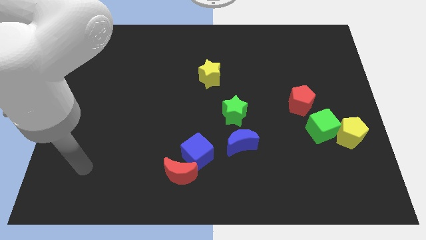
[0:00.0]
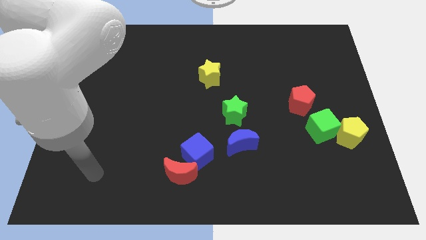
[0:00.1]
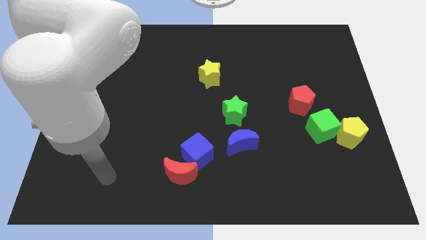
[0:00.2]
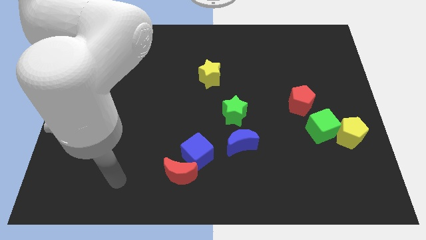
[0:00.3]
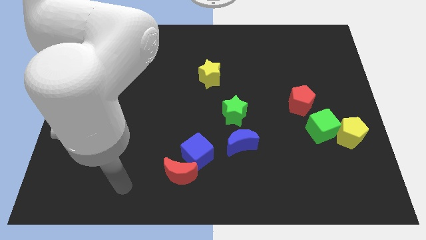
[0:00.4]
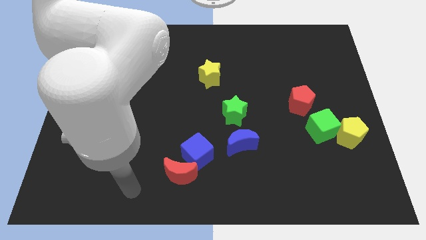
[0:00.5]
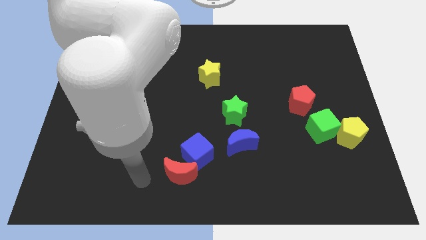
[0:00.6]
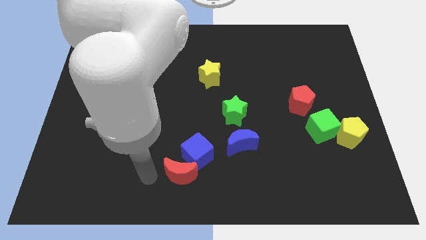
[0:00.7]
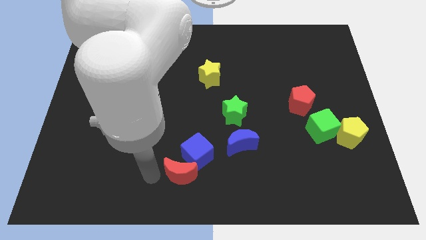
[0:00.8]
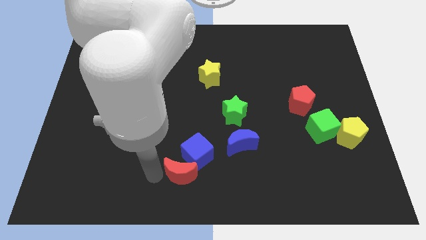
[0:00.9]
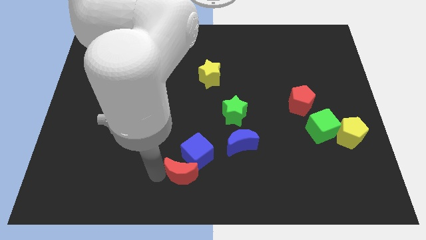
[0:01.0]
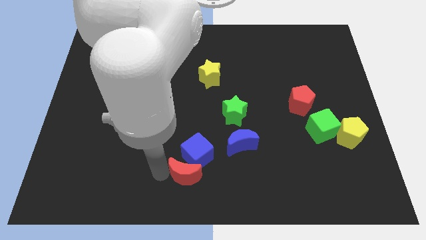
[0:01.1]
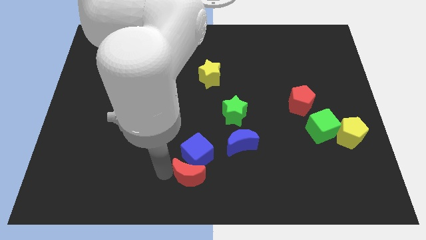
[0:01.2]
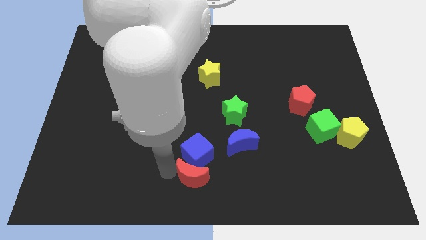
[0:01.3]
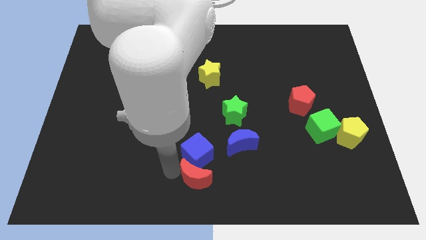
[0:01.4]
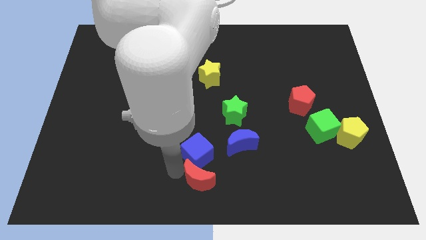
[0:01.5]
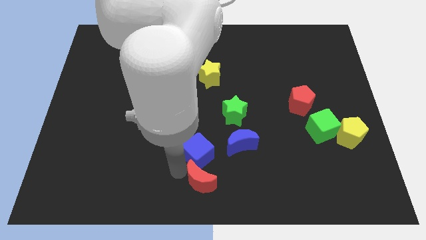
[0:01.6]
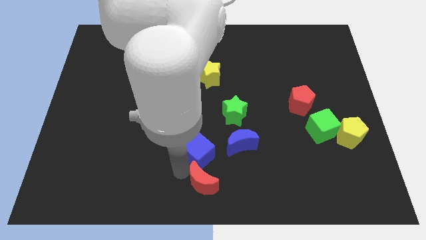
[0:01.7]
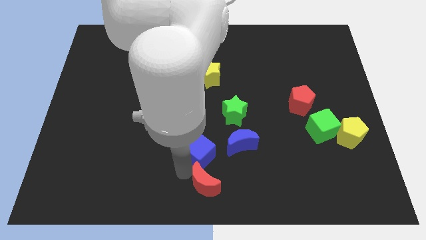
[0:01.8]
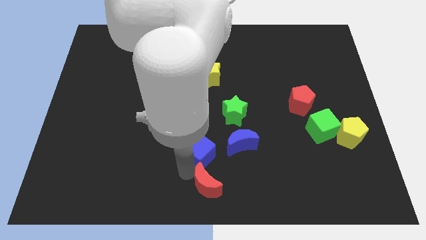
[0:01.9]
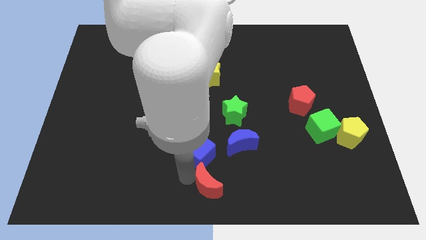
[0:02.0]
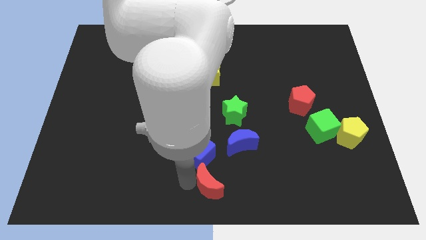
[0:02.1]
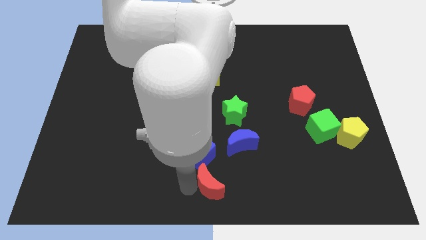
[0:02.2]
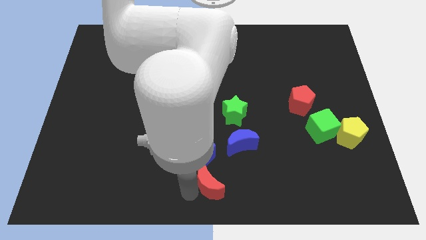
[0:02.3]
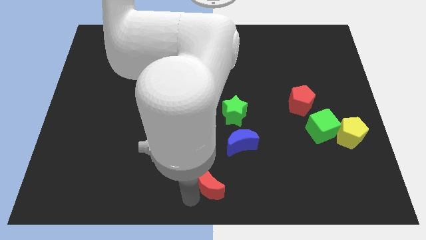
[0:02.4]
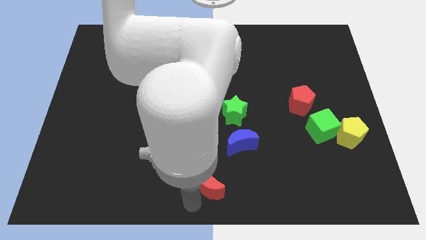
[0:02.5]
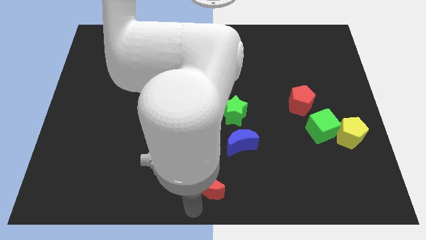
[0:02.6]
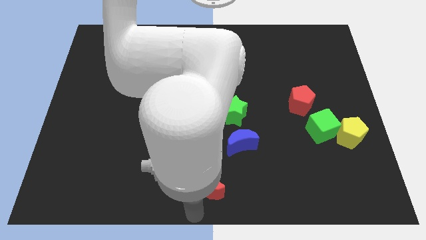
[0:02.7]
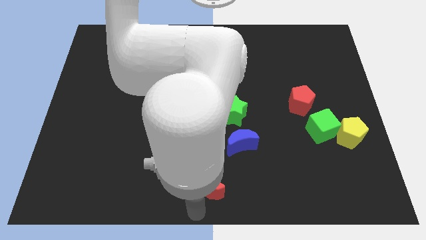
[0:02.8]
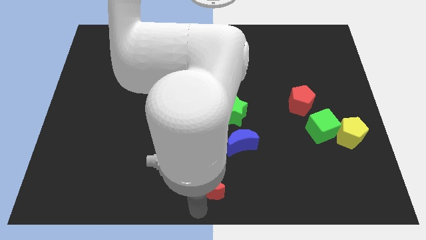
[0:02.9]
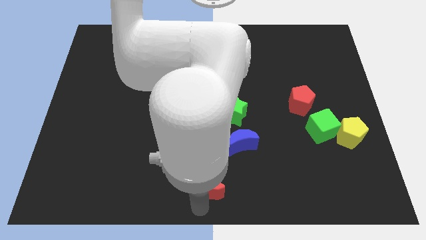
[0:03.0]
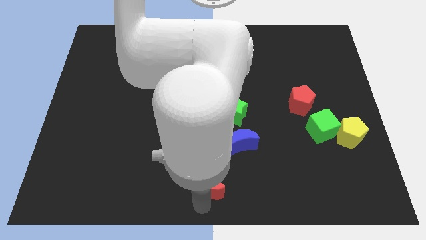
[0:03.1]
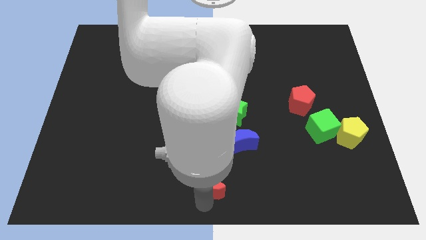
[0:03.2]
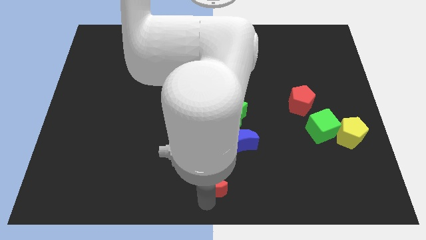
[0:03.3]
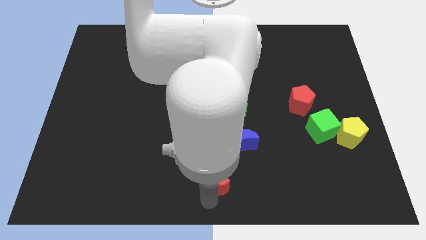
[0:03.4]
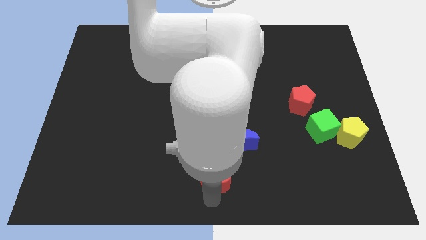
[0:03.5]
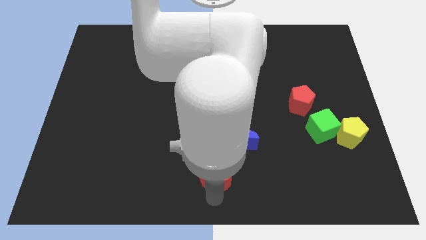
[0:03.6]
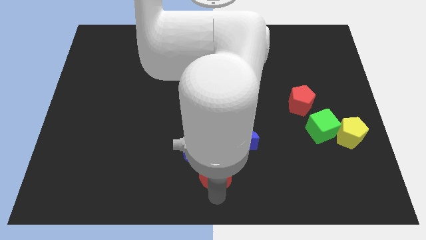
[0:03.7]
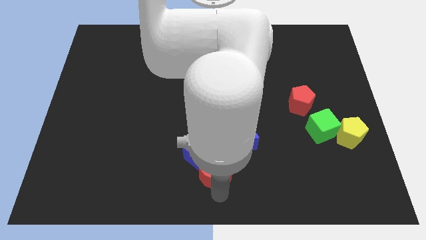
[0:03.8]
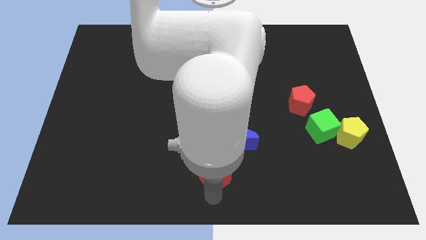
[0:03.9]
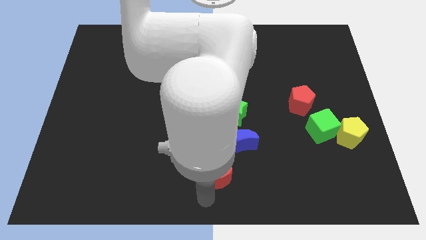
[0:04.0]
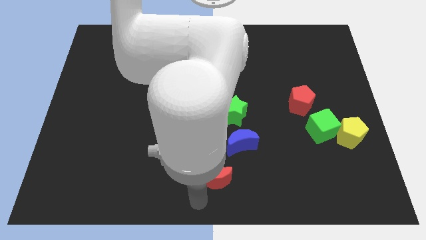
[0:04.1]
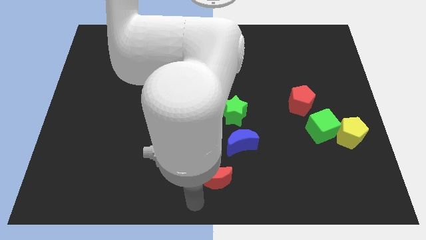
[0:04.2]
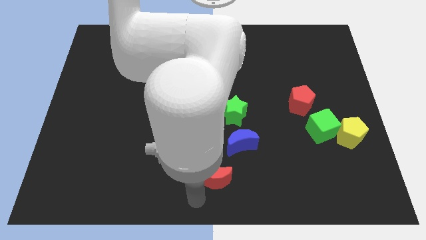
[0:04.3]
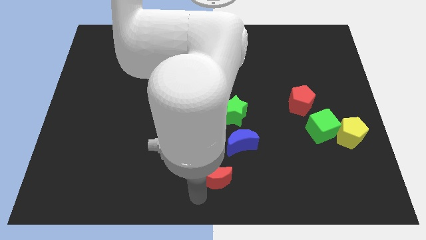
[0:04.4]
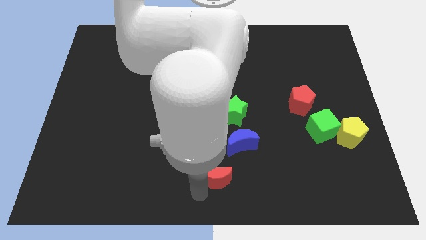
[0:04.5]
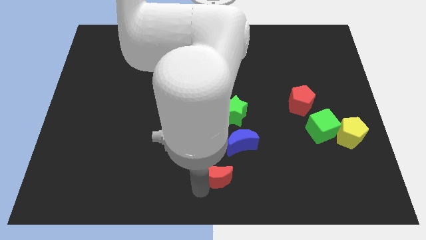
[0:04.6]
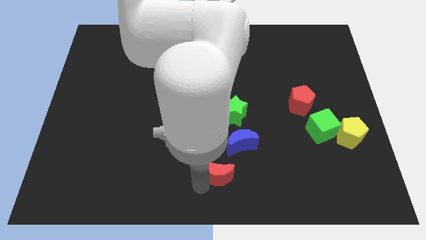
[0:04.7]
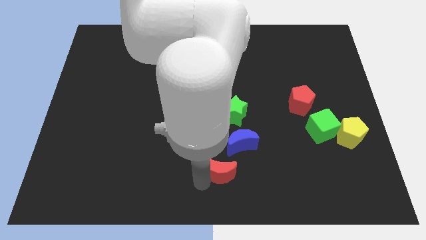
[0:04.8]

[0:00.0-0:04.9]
slide the red moon below the green star

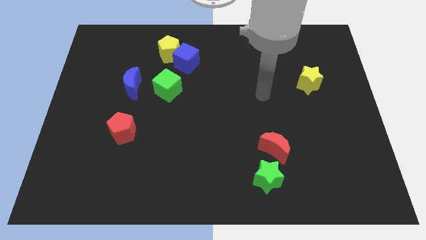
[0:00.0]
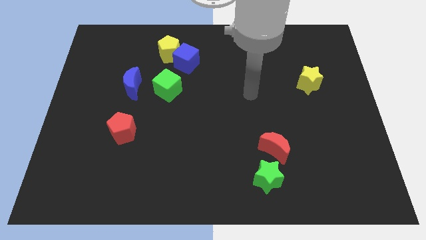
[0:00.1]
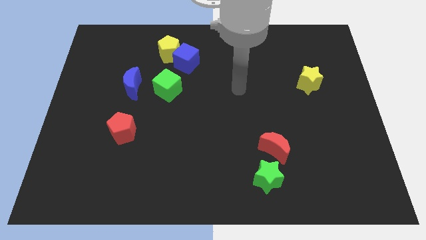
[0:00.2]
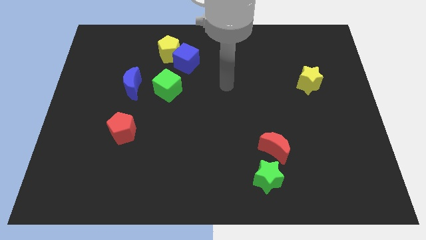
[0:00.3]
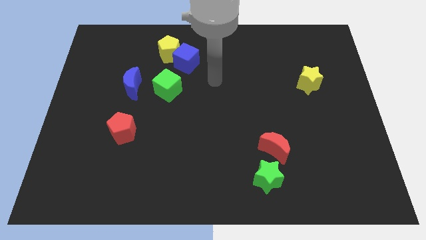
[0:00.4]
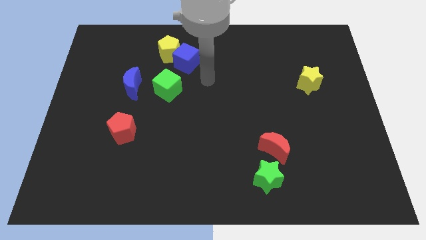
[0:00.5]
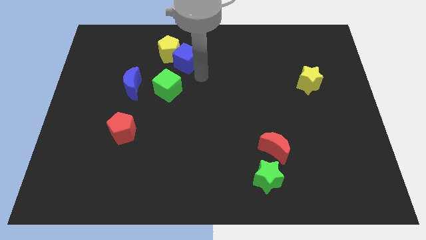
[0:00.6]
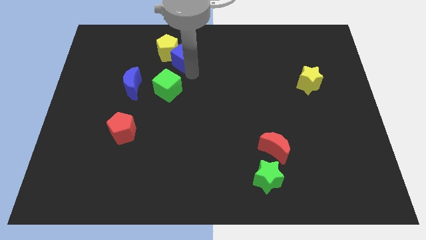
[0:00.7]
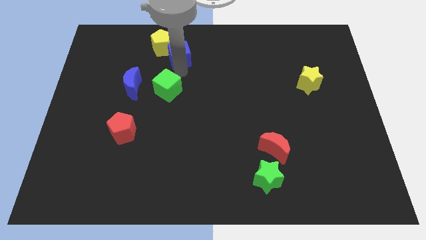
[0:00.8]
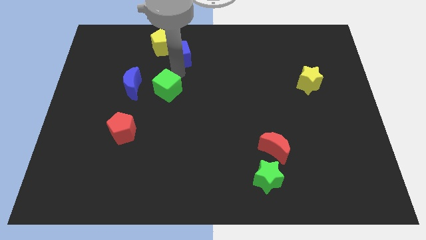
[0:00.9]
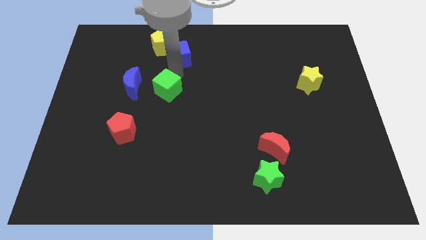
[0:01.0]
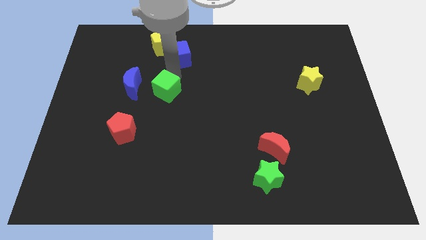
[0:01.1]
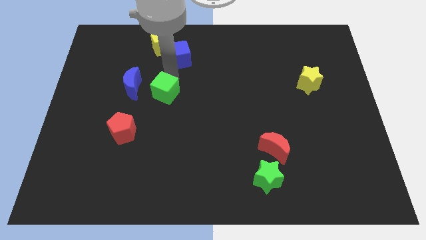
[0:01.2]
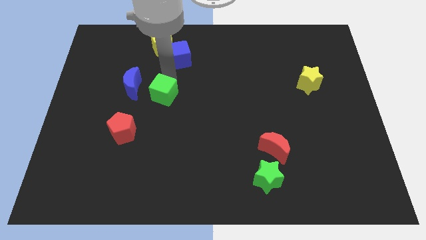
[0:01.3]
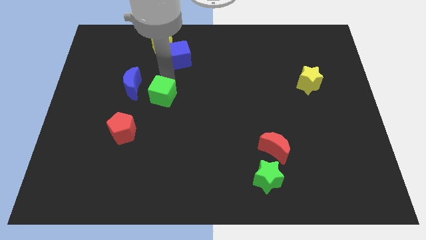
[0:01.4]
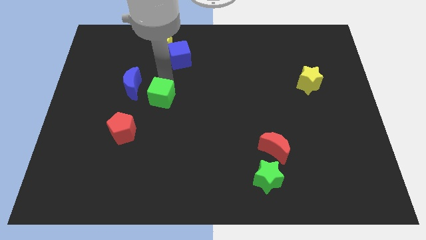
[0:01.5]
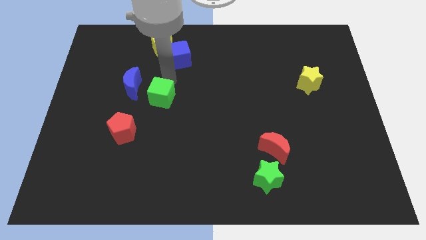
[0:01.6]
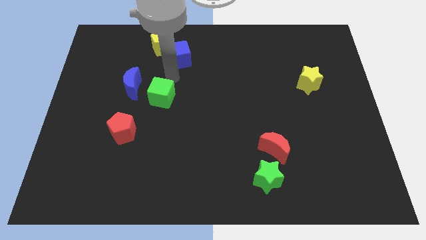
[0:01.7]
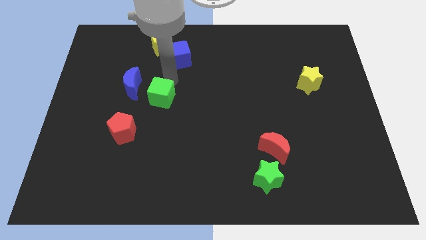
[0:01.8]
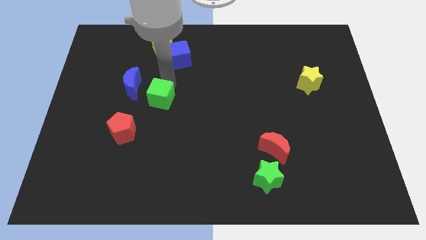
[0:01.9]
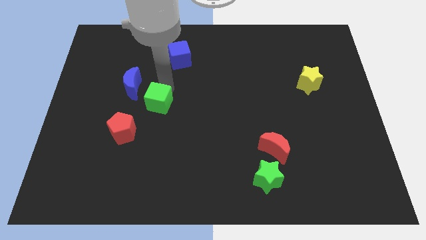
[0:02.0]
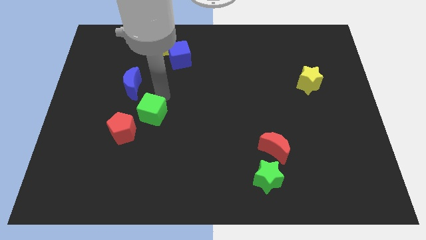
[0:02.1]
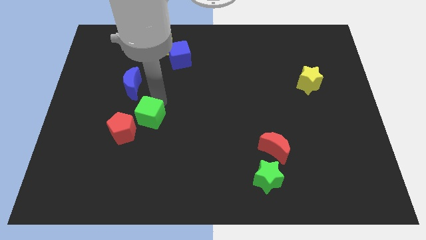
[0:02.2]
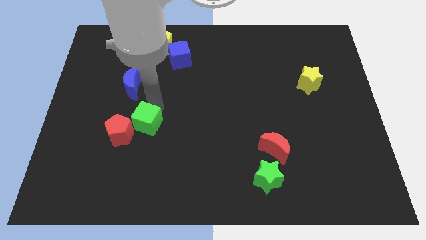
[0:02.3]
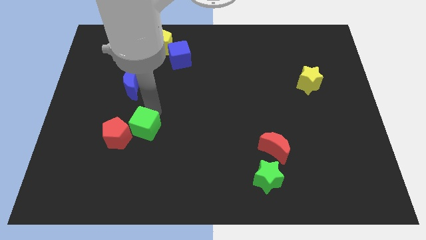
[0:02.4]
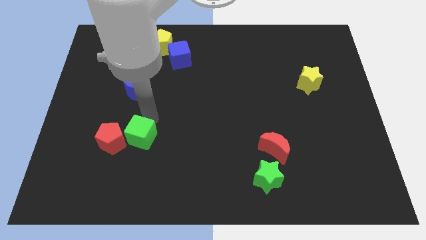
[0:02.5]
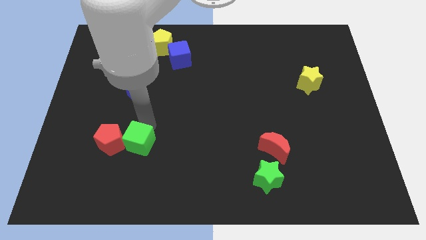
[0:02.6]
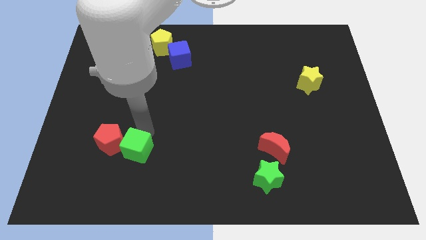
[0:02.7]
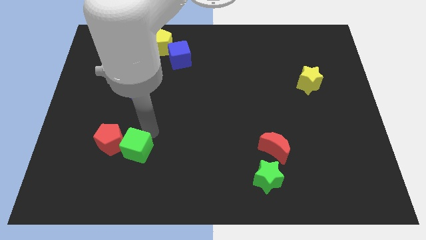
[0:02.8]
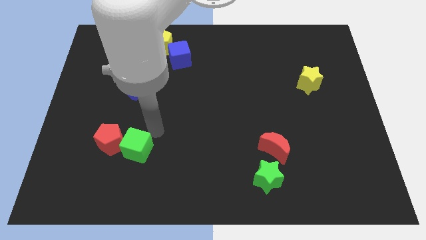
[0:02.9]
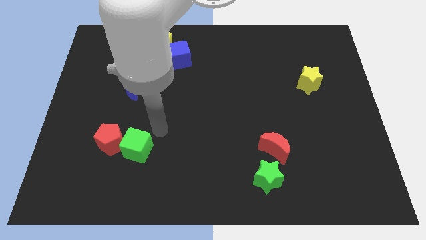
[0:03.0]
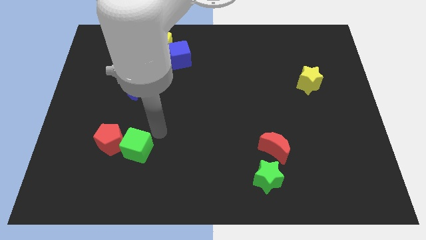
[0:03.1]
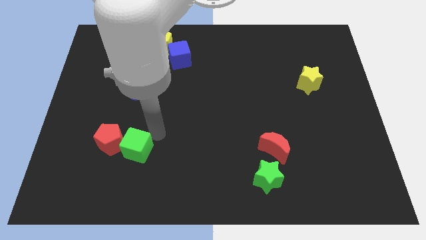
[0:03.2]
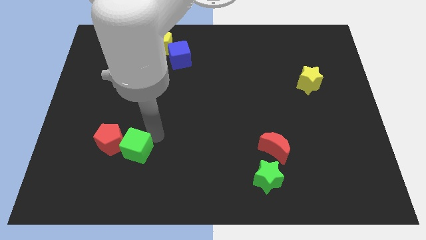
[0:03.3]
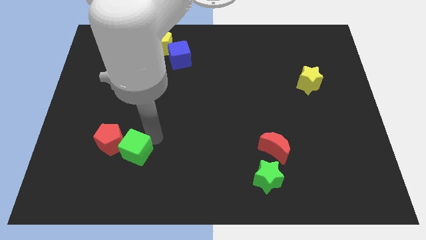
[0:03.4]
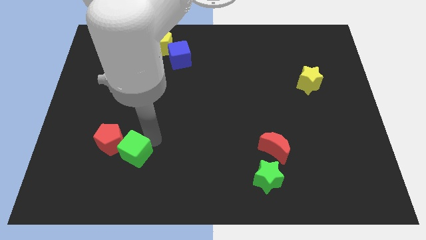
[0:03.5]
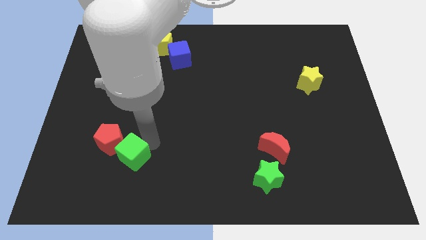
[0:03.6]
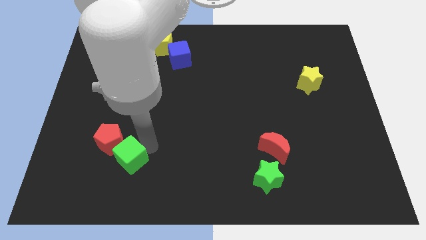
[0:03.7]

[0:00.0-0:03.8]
push the green cube below the red pentagon
